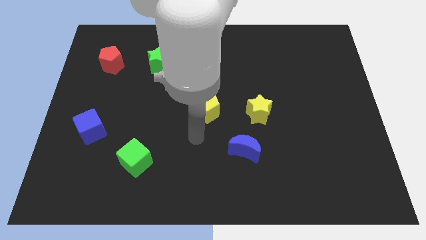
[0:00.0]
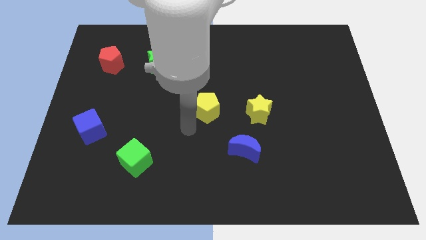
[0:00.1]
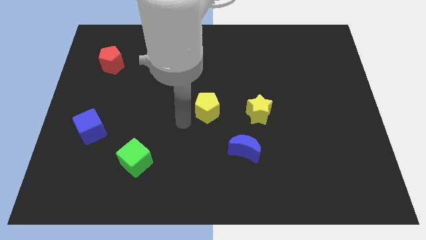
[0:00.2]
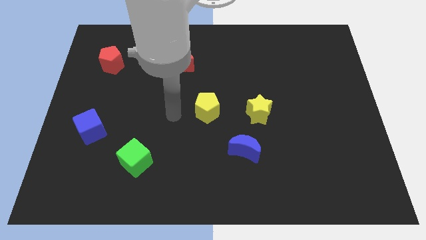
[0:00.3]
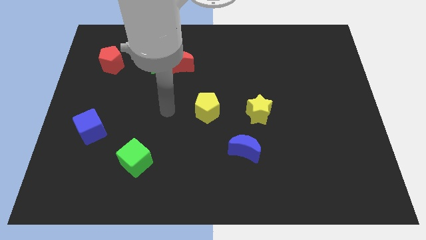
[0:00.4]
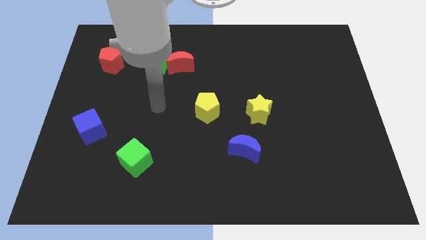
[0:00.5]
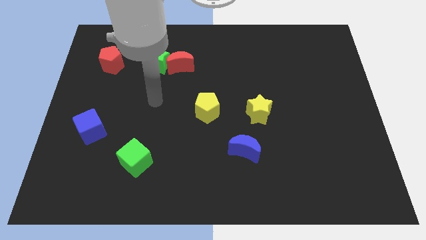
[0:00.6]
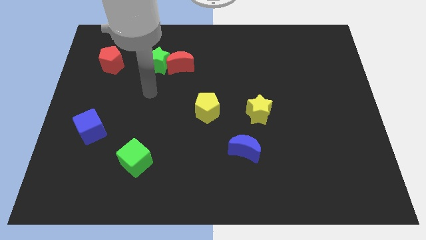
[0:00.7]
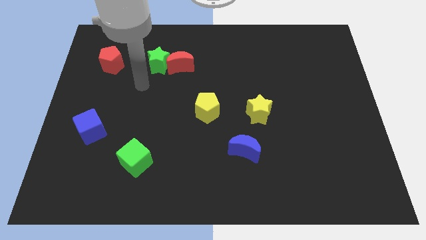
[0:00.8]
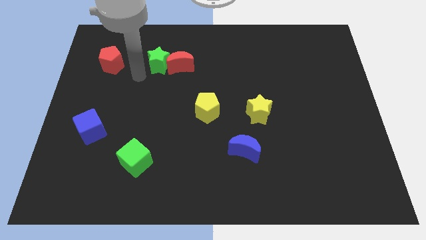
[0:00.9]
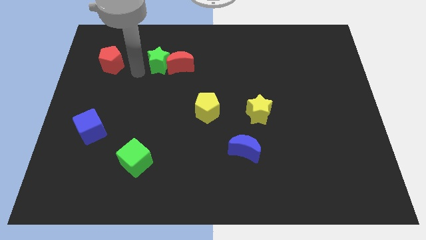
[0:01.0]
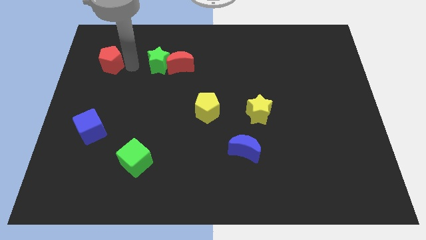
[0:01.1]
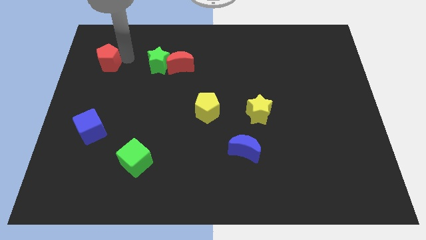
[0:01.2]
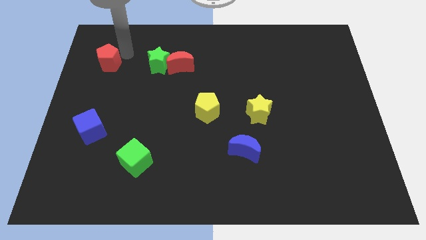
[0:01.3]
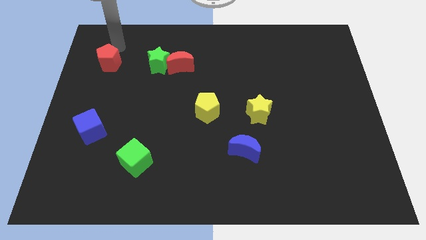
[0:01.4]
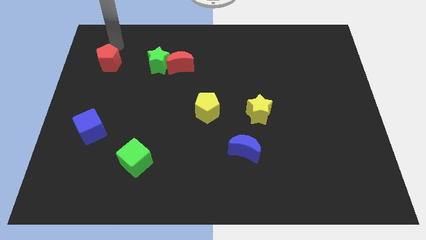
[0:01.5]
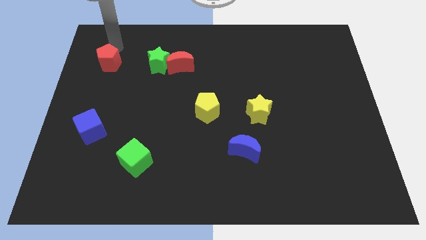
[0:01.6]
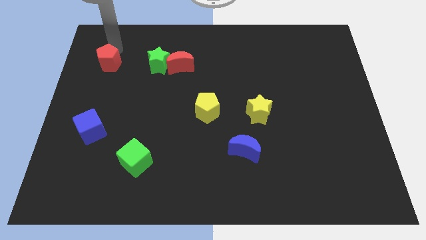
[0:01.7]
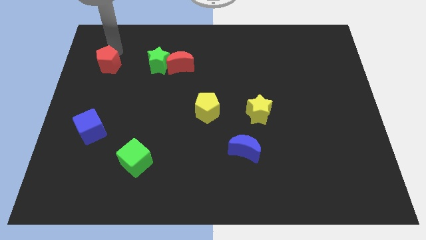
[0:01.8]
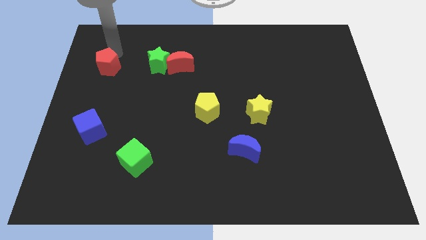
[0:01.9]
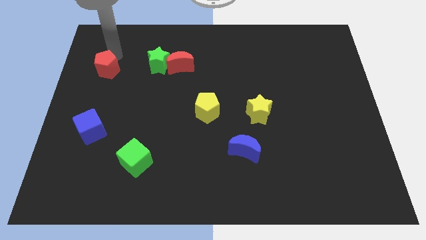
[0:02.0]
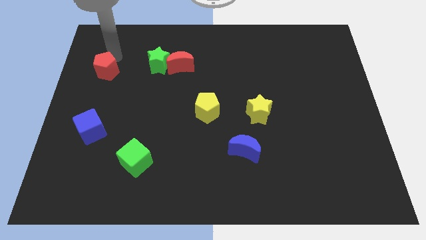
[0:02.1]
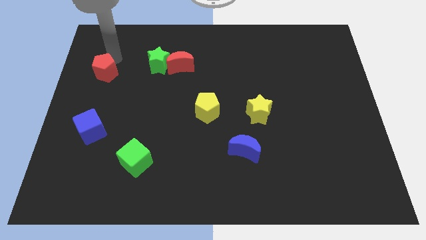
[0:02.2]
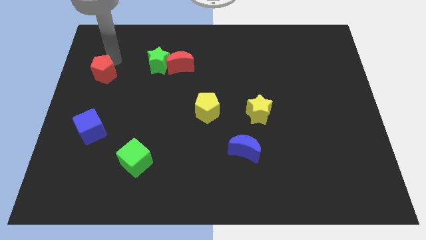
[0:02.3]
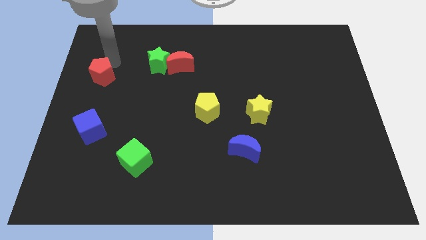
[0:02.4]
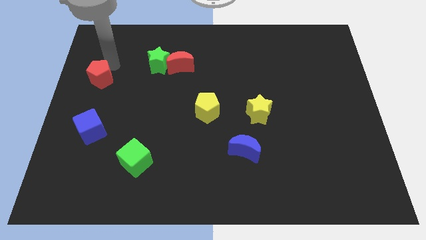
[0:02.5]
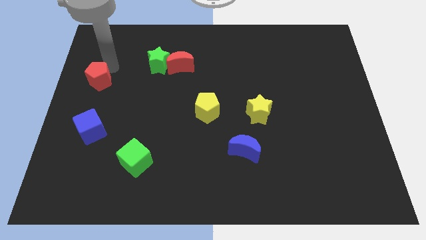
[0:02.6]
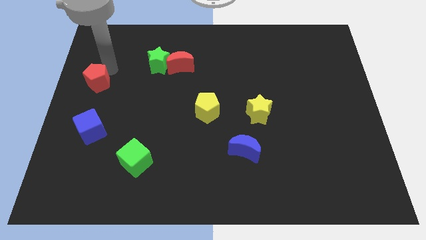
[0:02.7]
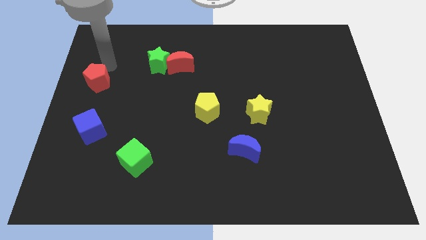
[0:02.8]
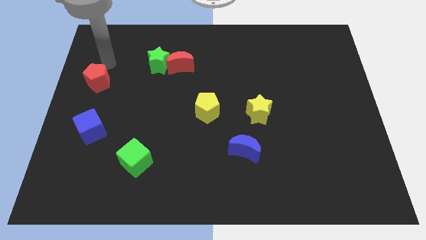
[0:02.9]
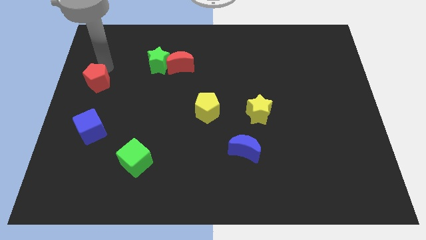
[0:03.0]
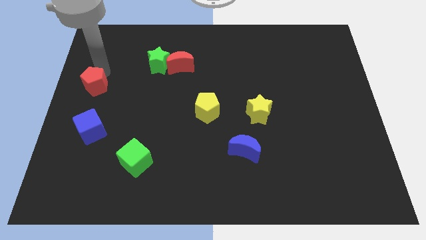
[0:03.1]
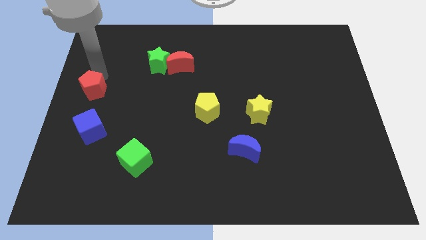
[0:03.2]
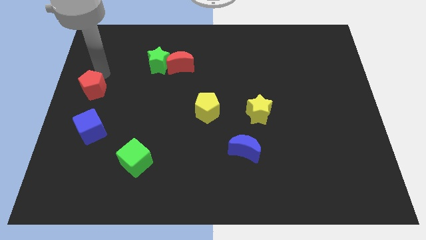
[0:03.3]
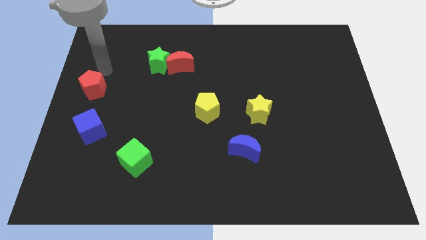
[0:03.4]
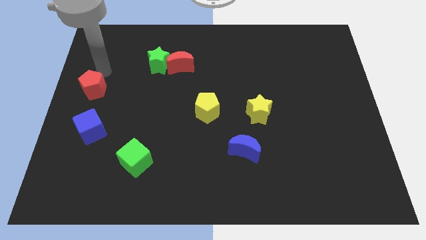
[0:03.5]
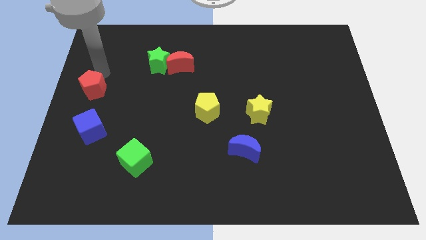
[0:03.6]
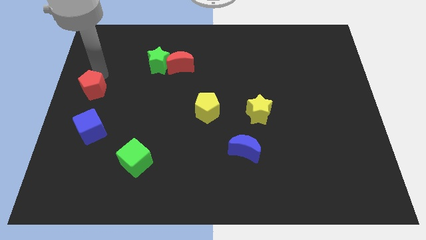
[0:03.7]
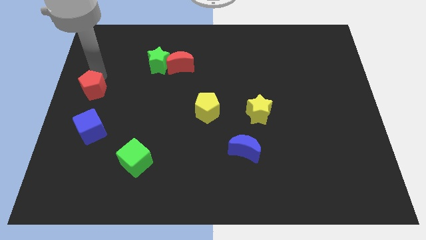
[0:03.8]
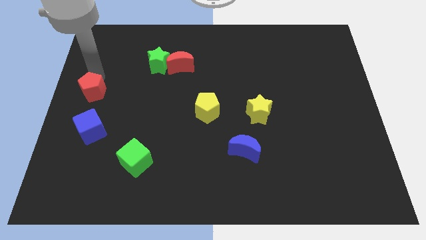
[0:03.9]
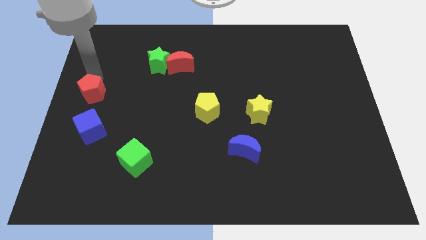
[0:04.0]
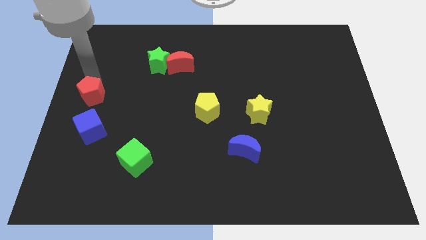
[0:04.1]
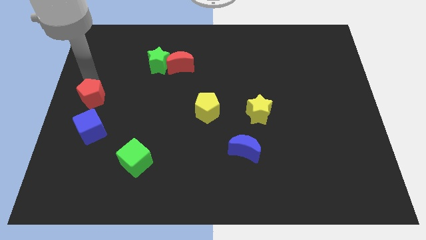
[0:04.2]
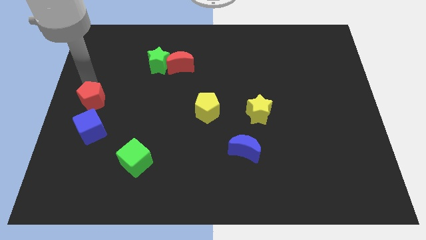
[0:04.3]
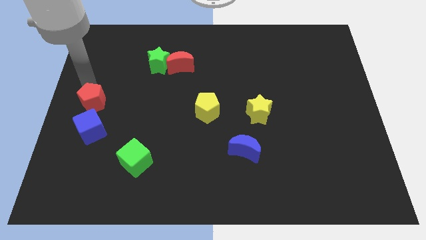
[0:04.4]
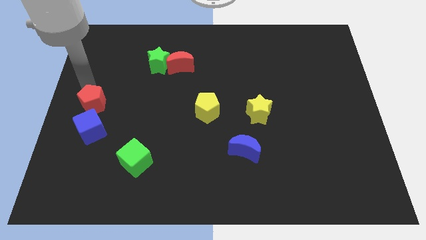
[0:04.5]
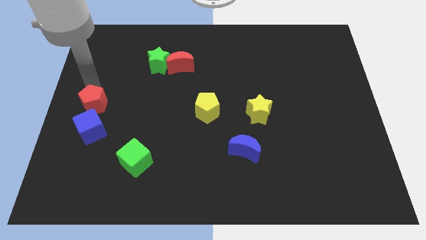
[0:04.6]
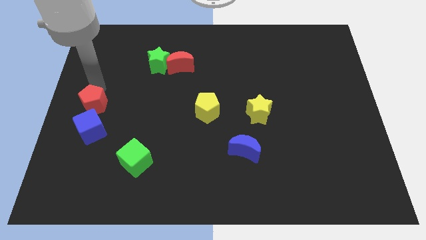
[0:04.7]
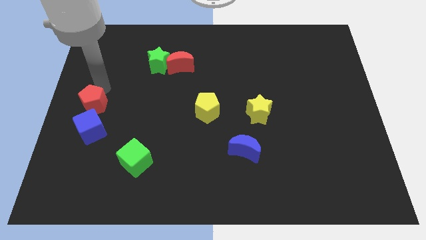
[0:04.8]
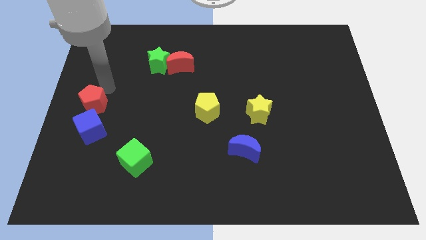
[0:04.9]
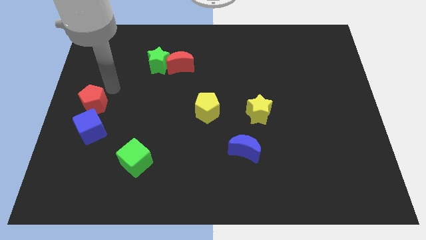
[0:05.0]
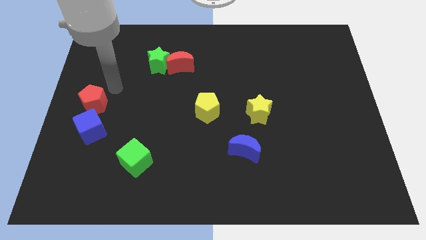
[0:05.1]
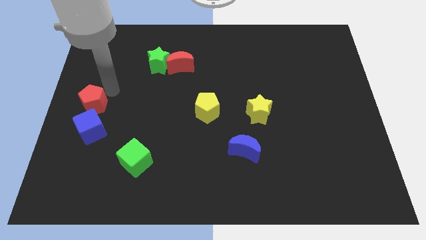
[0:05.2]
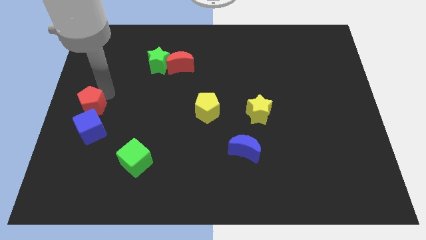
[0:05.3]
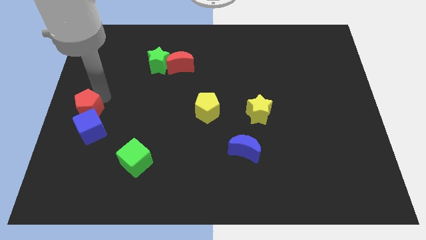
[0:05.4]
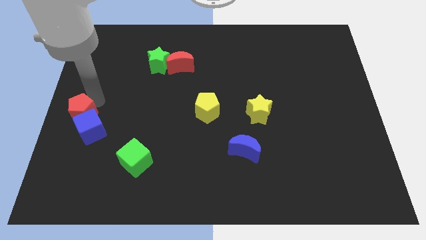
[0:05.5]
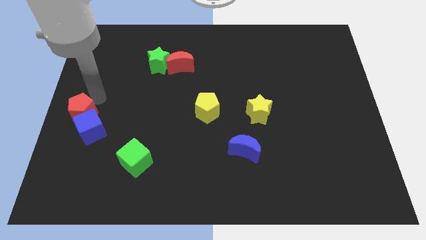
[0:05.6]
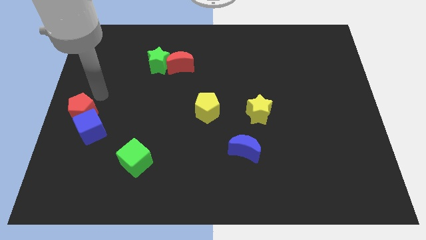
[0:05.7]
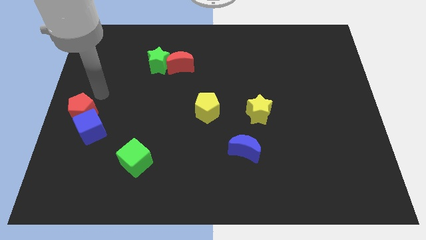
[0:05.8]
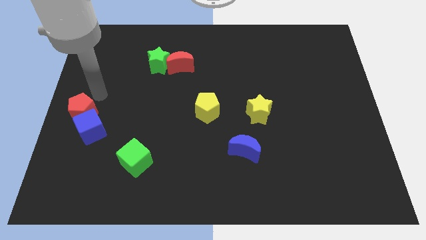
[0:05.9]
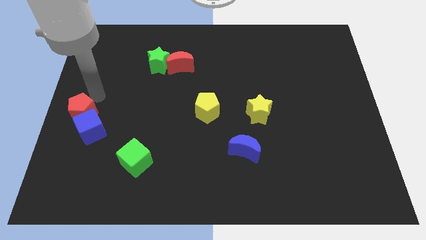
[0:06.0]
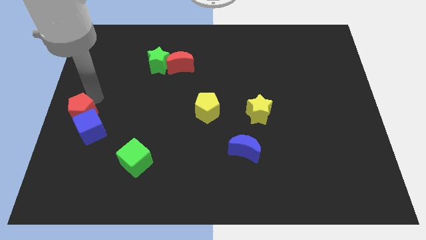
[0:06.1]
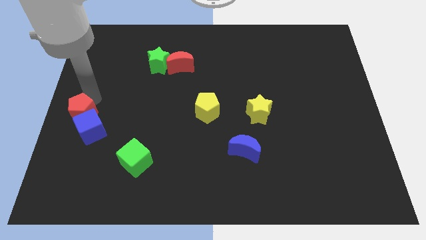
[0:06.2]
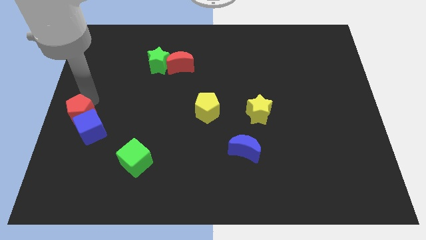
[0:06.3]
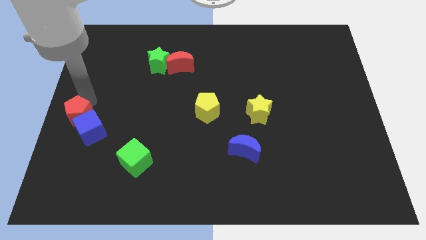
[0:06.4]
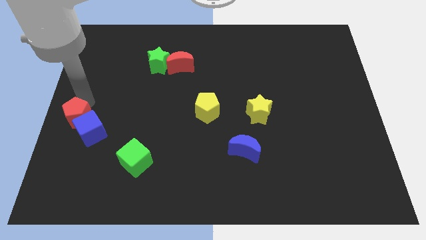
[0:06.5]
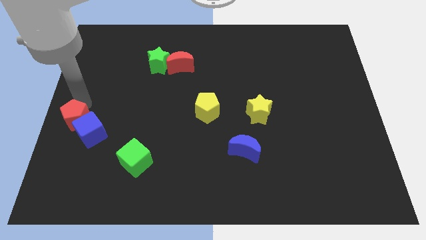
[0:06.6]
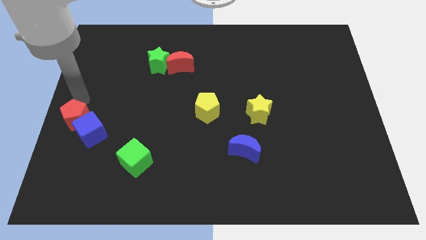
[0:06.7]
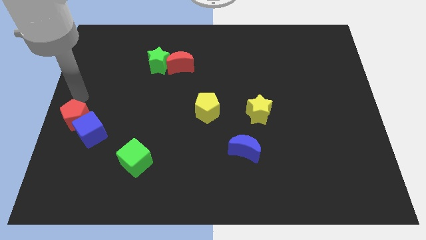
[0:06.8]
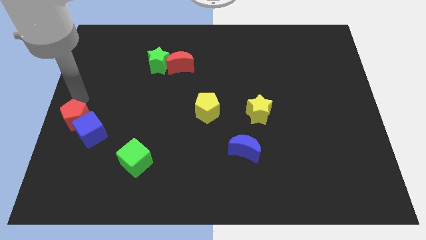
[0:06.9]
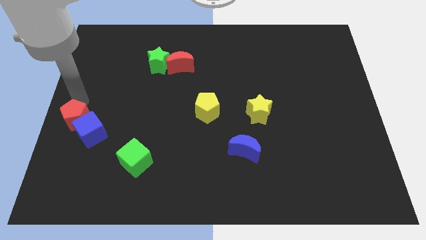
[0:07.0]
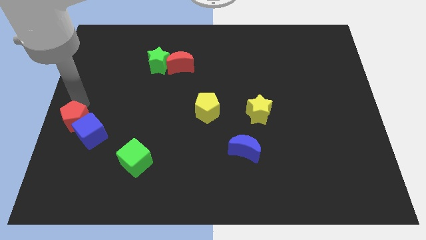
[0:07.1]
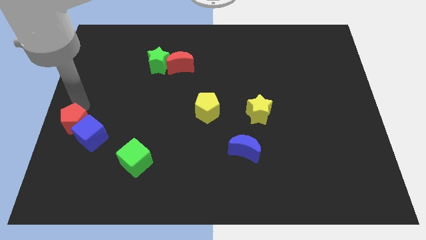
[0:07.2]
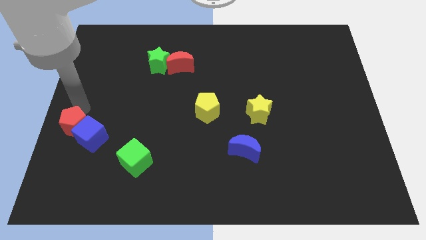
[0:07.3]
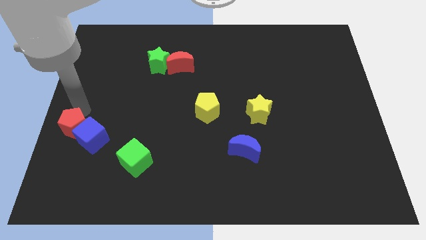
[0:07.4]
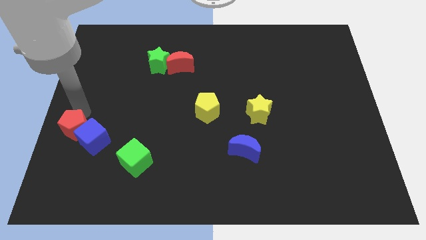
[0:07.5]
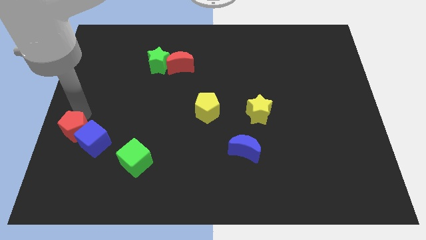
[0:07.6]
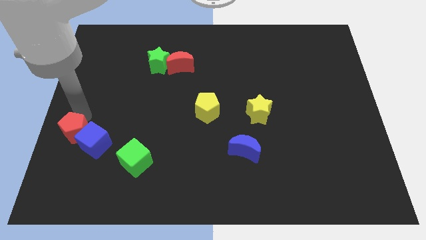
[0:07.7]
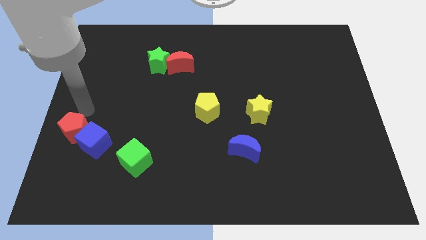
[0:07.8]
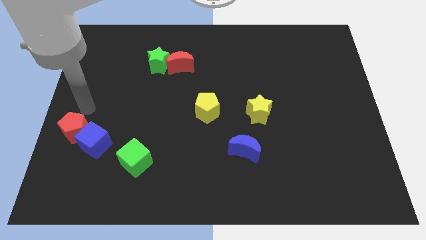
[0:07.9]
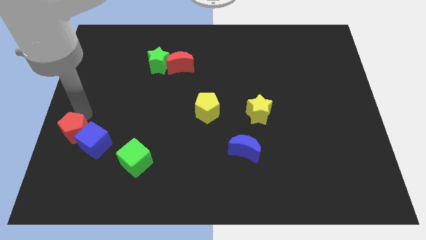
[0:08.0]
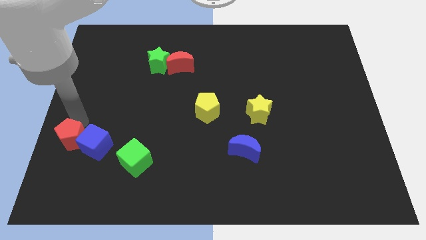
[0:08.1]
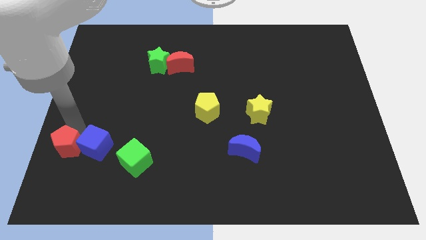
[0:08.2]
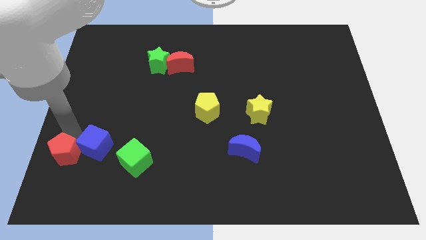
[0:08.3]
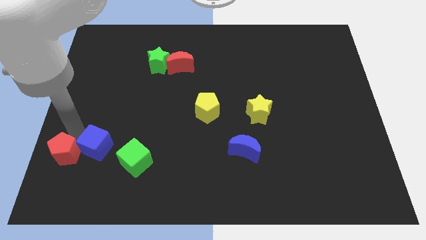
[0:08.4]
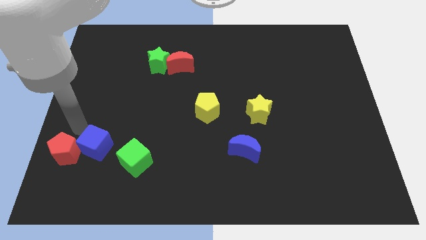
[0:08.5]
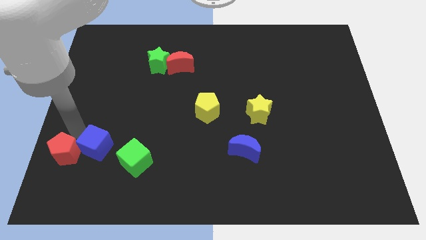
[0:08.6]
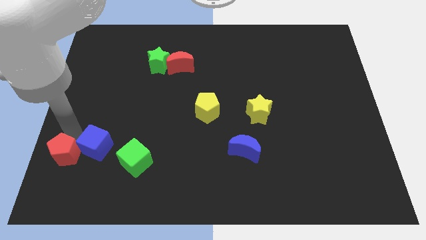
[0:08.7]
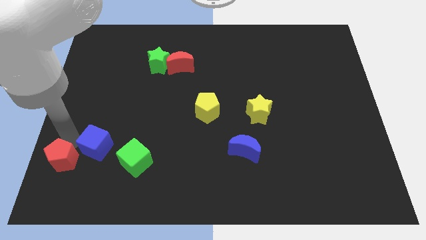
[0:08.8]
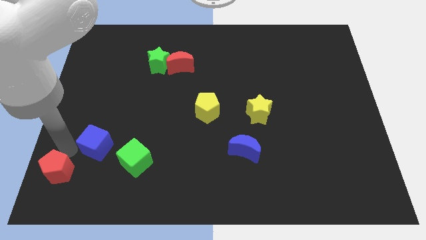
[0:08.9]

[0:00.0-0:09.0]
move the red pentagon to the lower left corner
